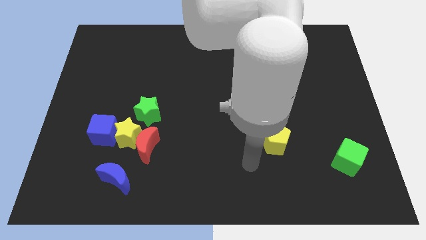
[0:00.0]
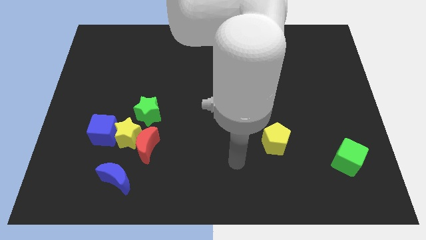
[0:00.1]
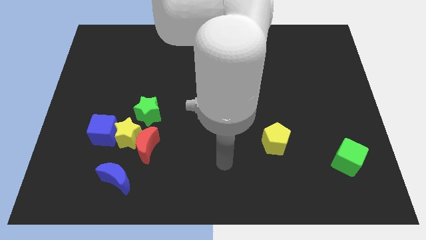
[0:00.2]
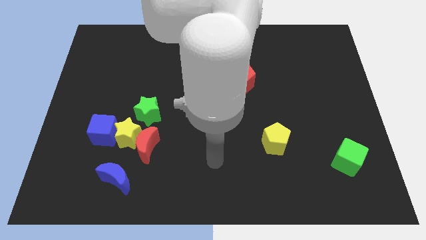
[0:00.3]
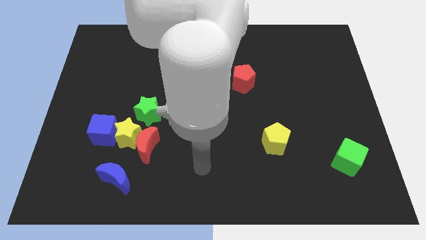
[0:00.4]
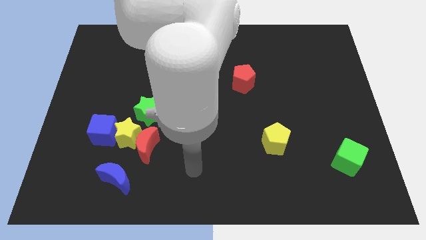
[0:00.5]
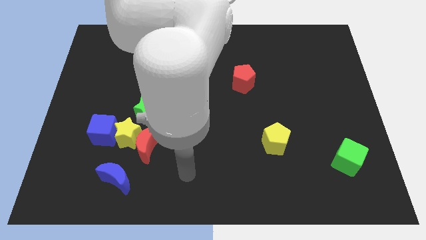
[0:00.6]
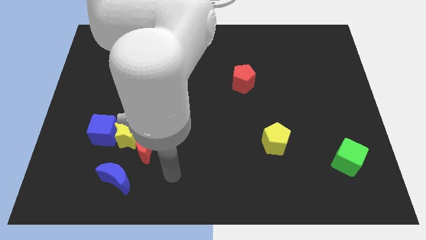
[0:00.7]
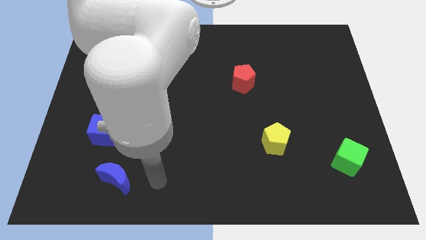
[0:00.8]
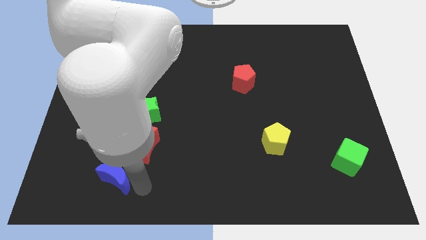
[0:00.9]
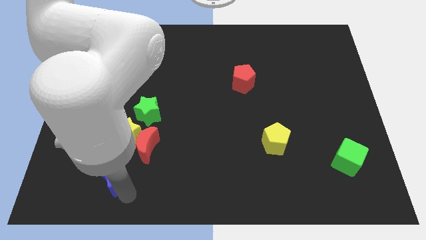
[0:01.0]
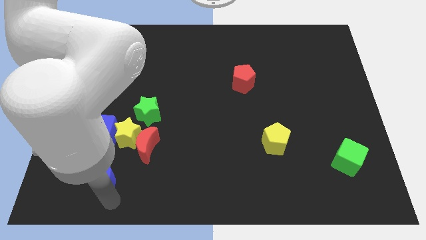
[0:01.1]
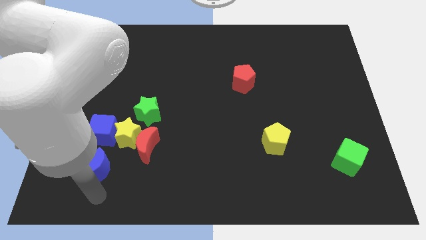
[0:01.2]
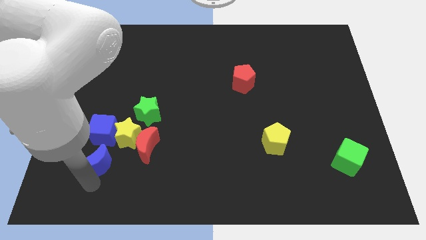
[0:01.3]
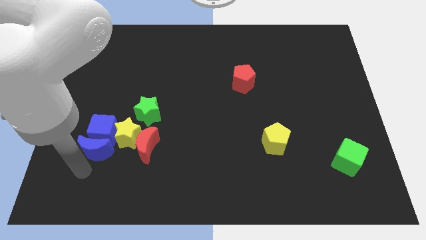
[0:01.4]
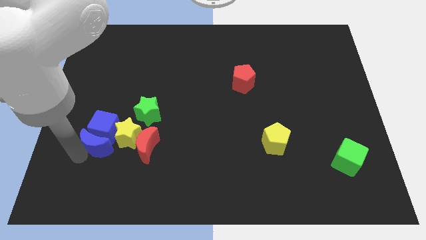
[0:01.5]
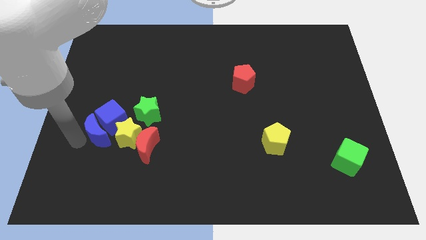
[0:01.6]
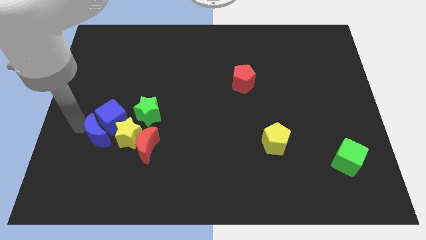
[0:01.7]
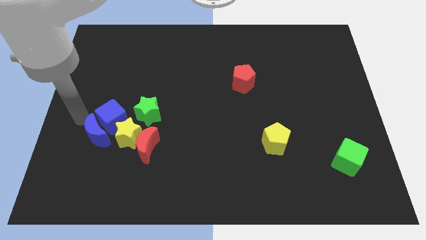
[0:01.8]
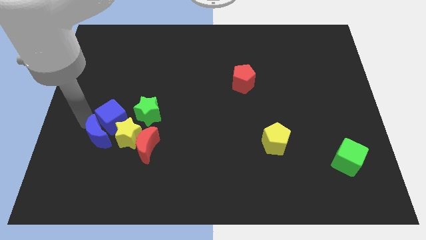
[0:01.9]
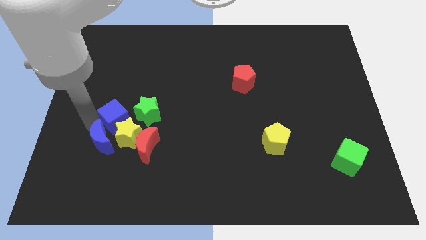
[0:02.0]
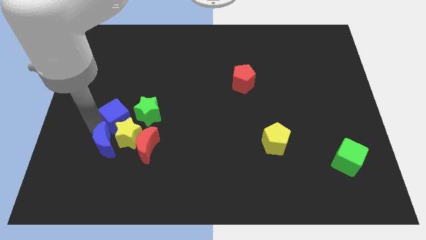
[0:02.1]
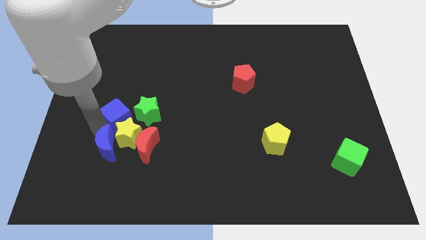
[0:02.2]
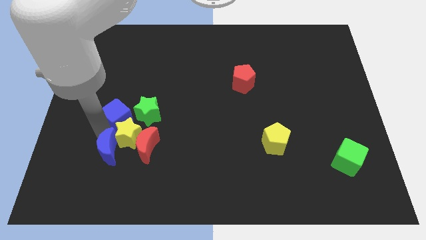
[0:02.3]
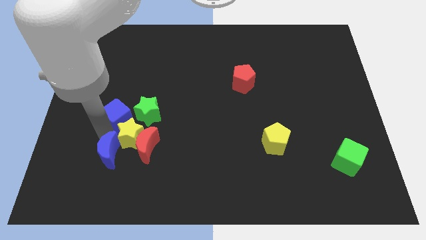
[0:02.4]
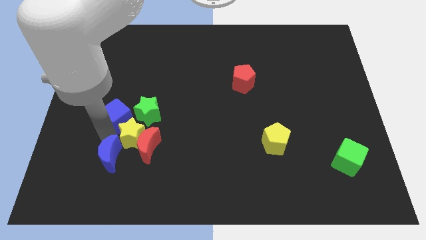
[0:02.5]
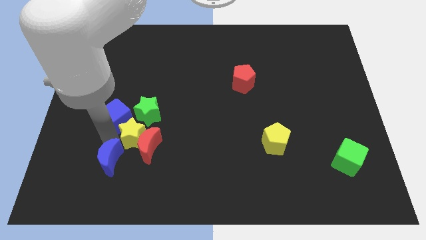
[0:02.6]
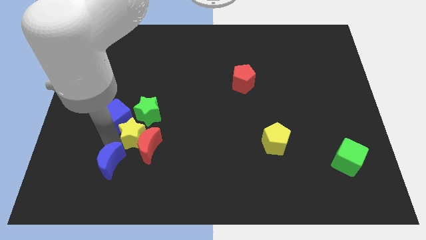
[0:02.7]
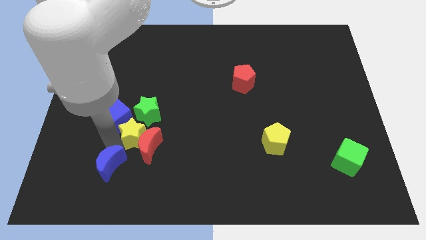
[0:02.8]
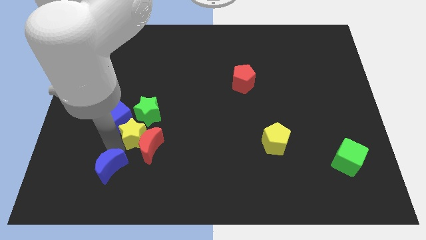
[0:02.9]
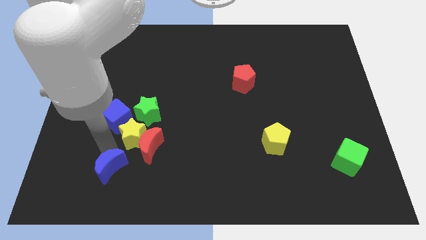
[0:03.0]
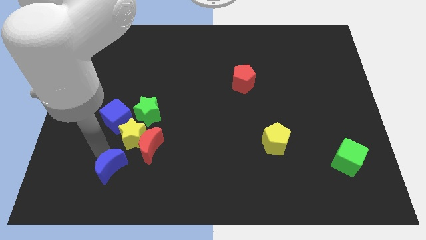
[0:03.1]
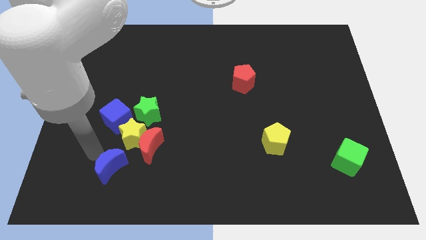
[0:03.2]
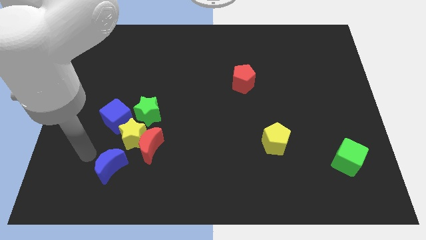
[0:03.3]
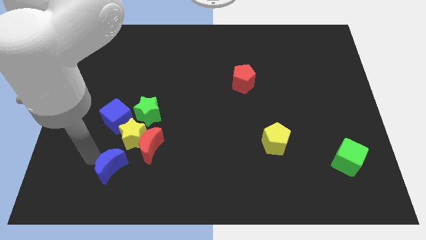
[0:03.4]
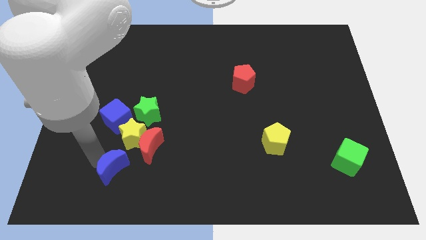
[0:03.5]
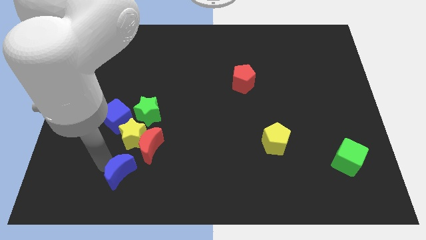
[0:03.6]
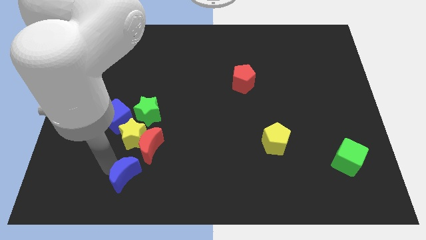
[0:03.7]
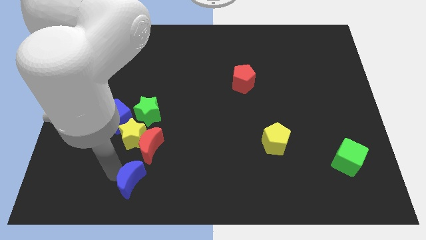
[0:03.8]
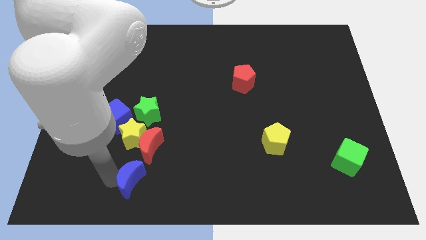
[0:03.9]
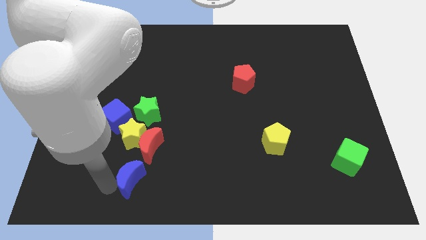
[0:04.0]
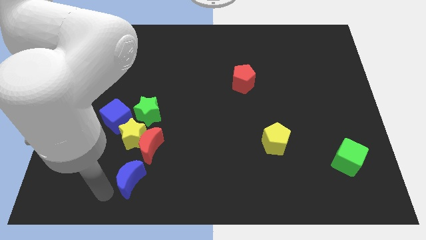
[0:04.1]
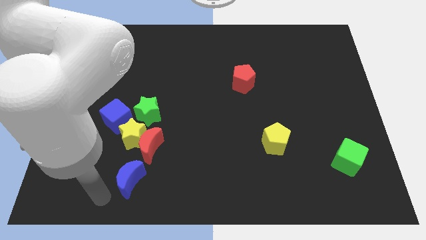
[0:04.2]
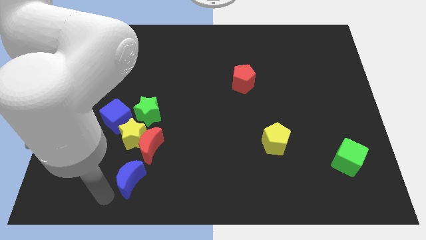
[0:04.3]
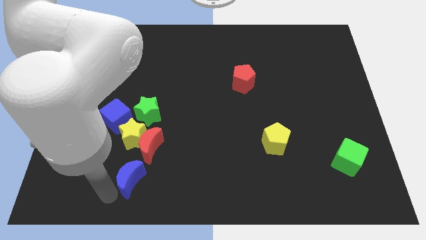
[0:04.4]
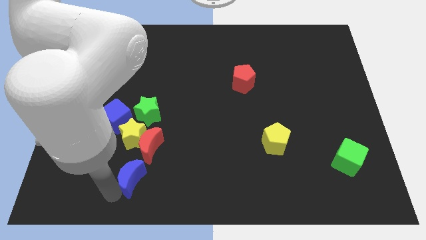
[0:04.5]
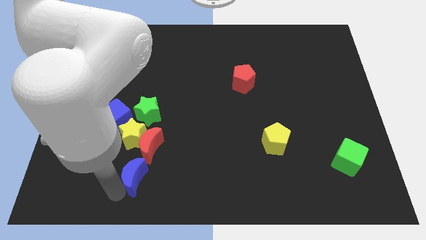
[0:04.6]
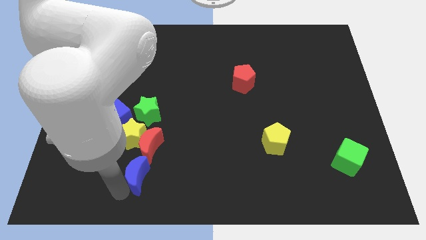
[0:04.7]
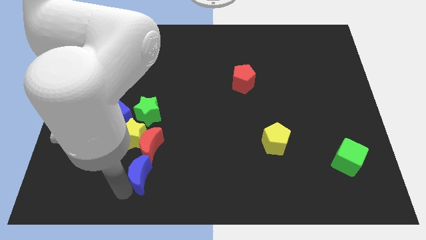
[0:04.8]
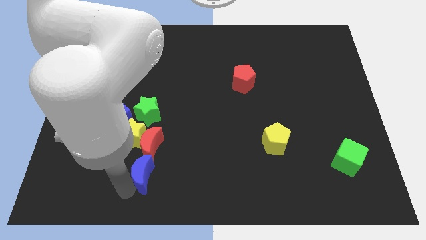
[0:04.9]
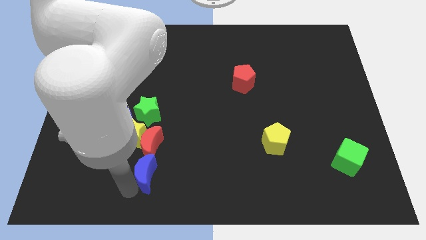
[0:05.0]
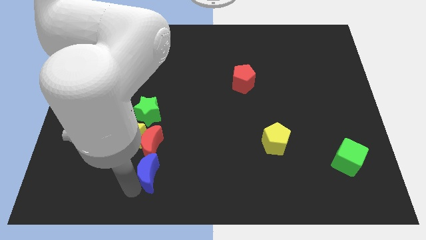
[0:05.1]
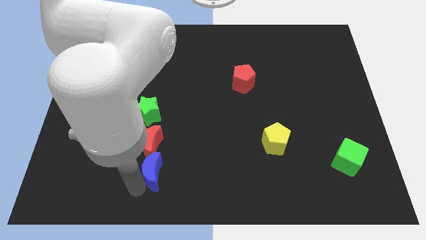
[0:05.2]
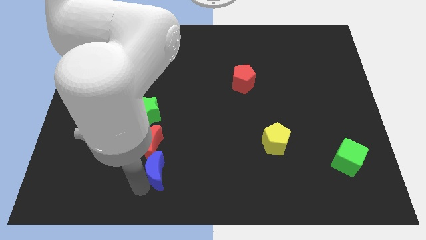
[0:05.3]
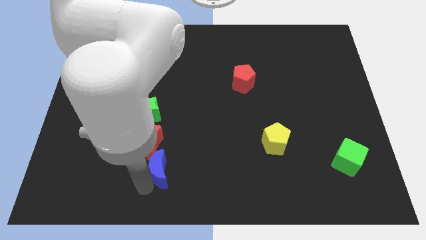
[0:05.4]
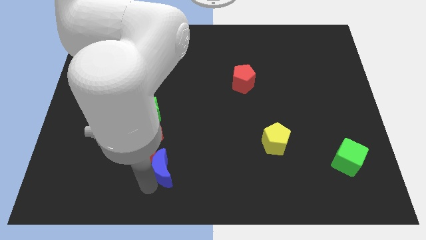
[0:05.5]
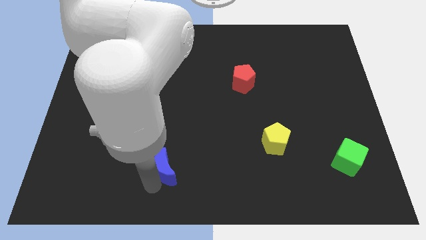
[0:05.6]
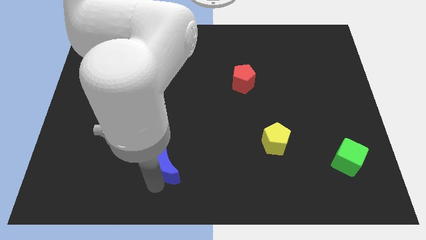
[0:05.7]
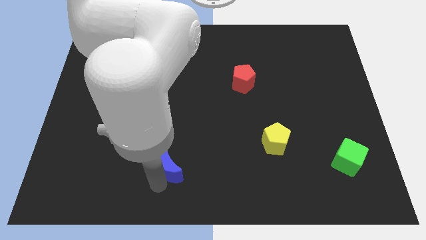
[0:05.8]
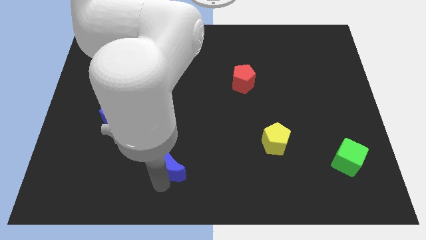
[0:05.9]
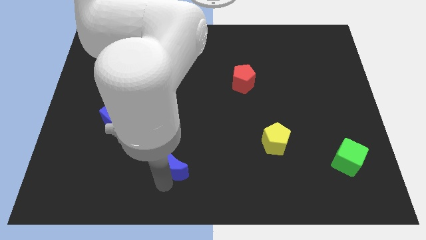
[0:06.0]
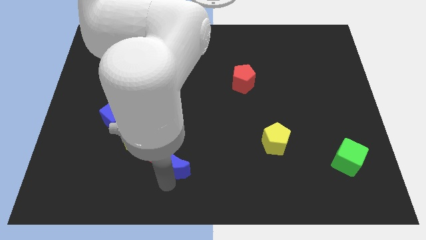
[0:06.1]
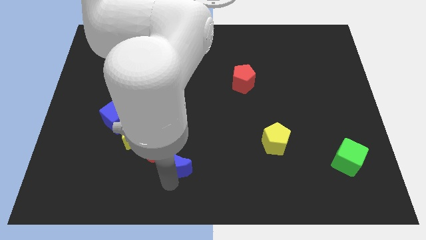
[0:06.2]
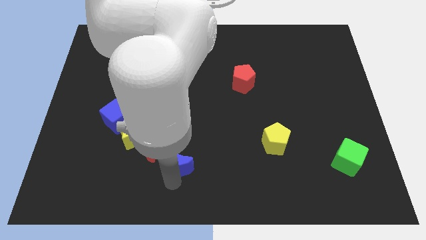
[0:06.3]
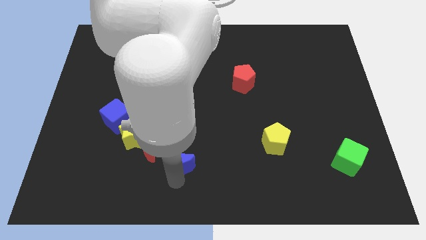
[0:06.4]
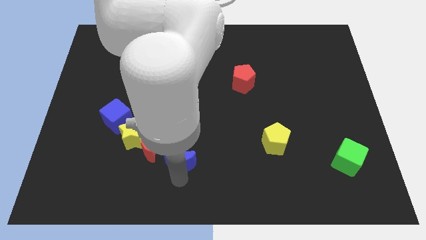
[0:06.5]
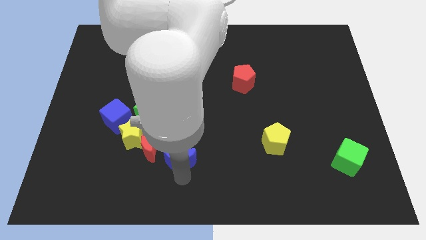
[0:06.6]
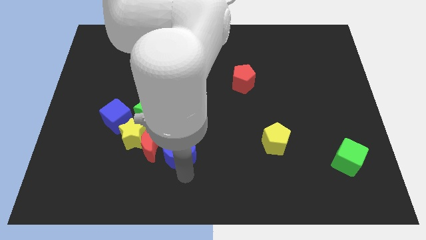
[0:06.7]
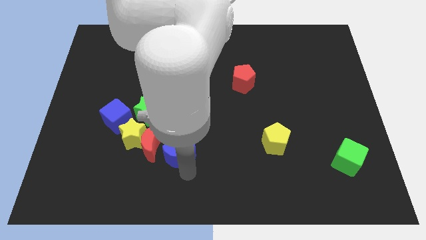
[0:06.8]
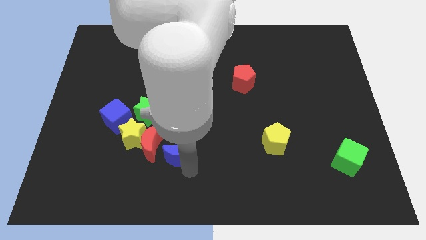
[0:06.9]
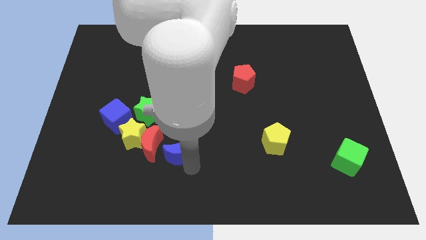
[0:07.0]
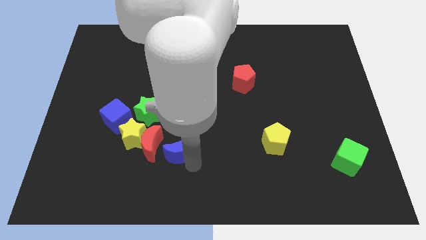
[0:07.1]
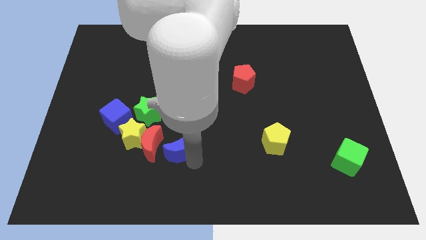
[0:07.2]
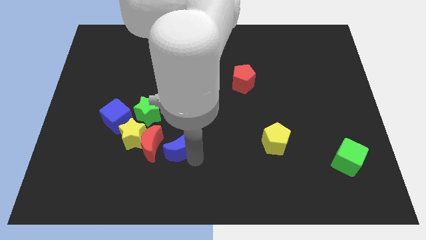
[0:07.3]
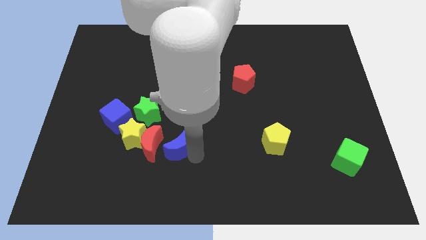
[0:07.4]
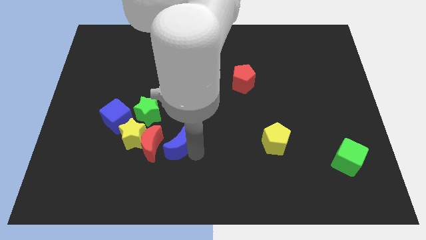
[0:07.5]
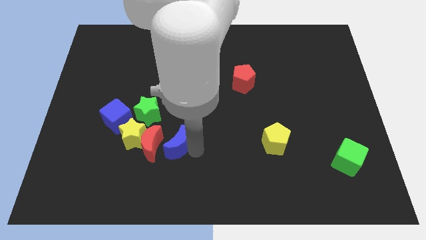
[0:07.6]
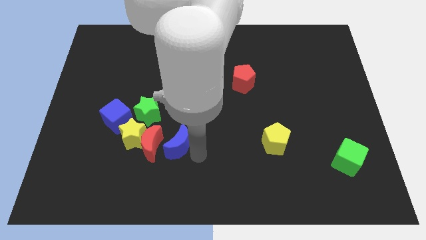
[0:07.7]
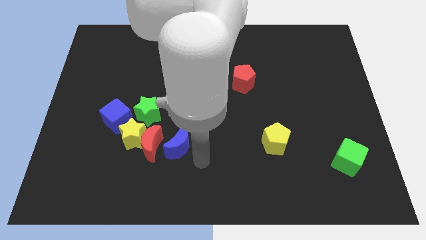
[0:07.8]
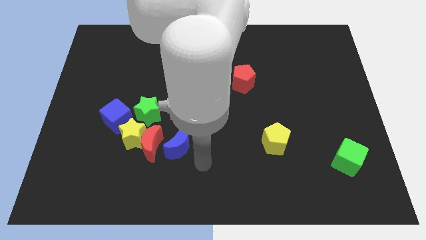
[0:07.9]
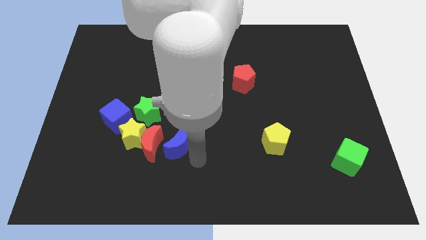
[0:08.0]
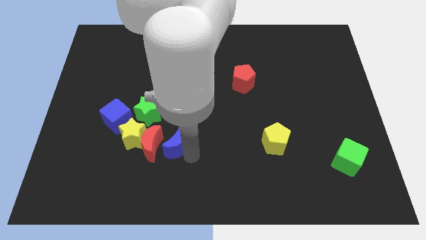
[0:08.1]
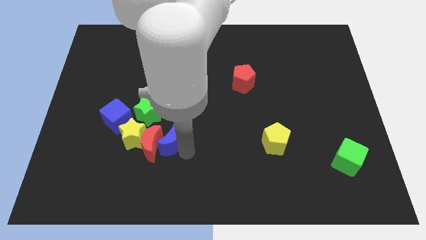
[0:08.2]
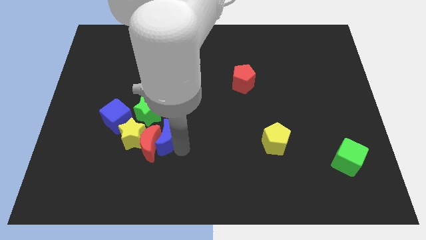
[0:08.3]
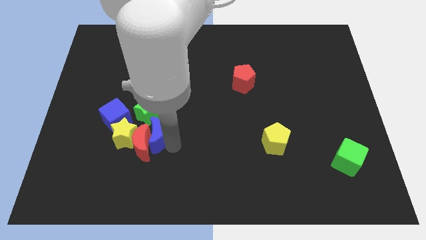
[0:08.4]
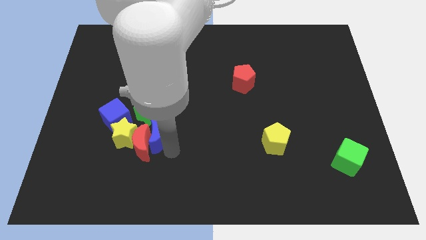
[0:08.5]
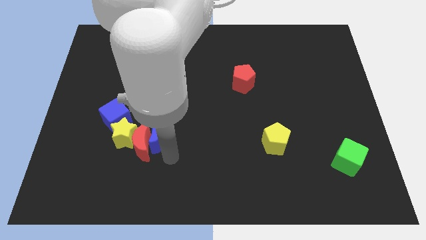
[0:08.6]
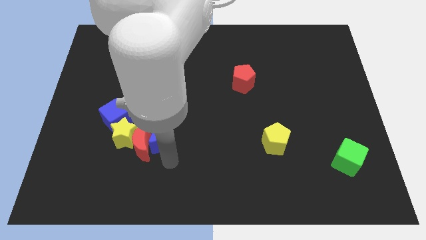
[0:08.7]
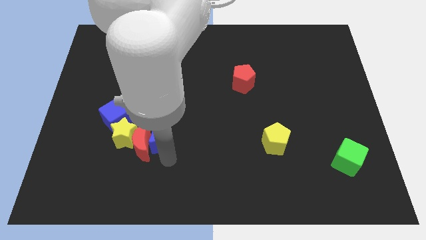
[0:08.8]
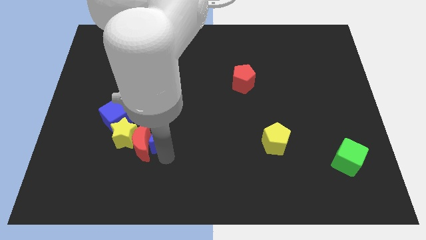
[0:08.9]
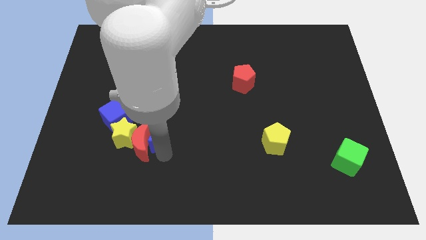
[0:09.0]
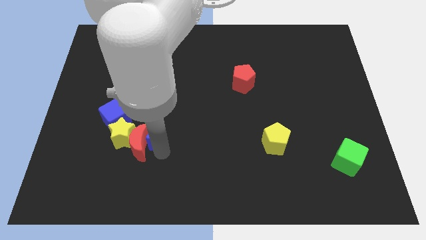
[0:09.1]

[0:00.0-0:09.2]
push the blue moon to the green star
